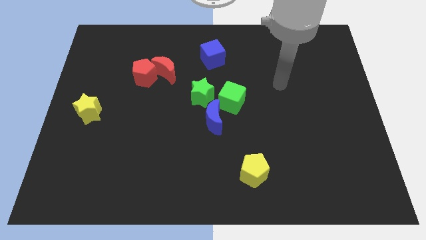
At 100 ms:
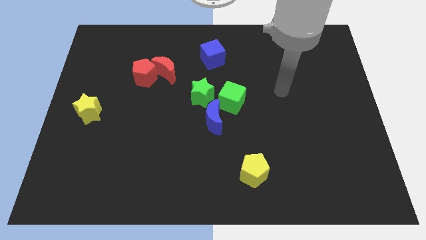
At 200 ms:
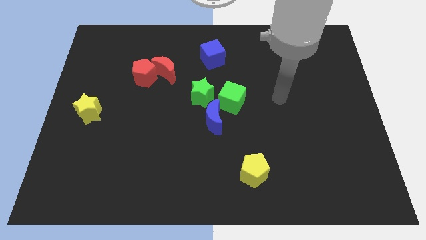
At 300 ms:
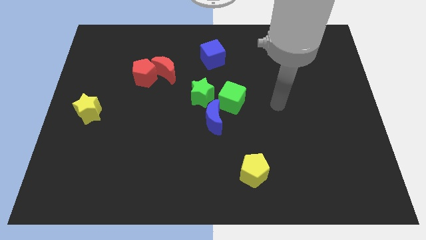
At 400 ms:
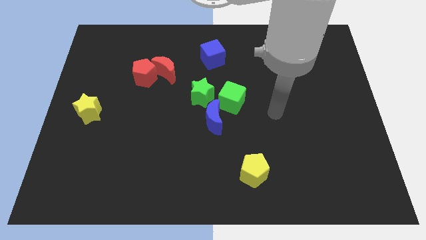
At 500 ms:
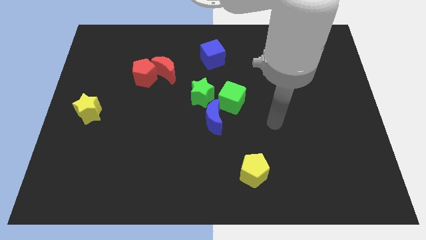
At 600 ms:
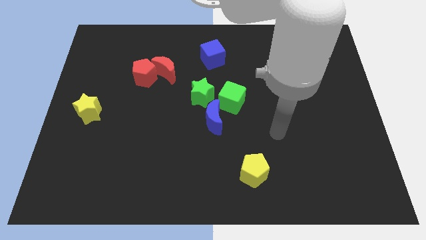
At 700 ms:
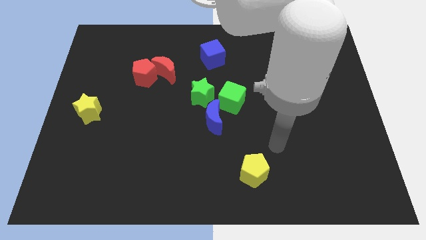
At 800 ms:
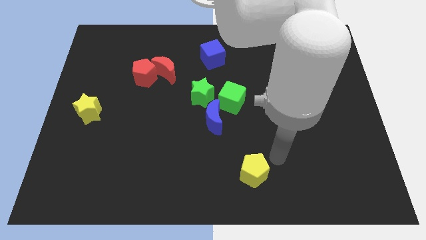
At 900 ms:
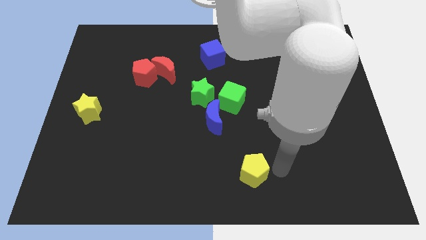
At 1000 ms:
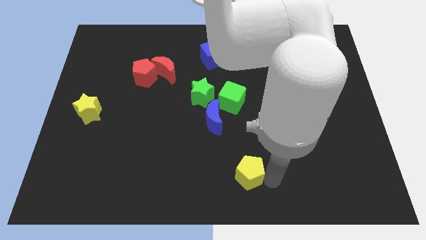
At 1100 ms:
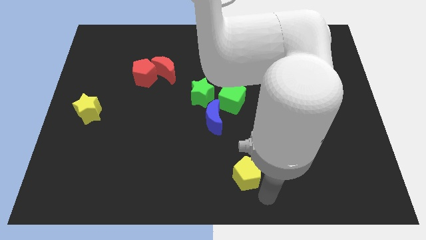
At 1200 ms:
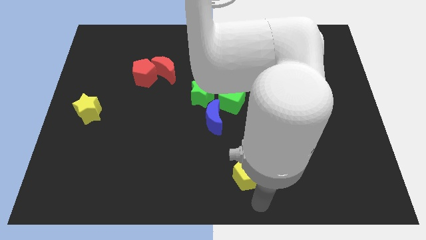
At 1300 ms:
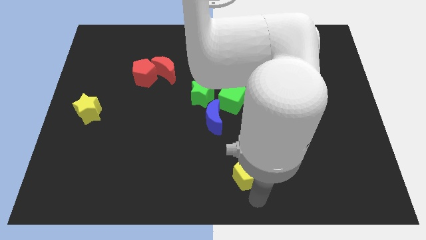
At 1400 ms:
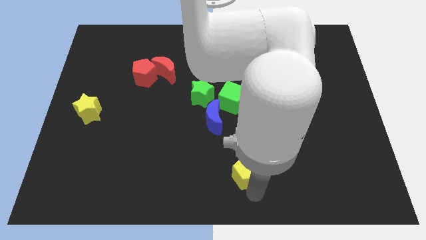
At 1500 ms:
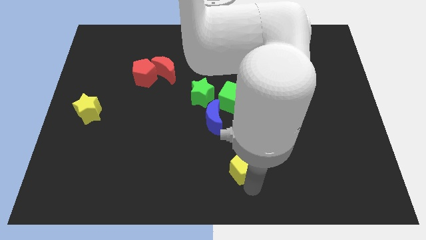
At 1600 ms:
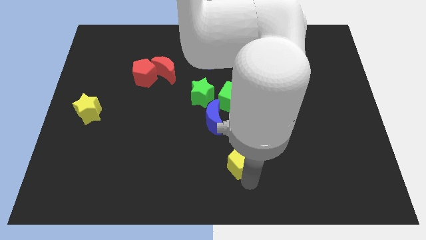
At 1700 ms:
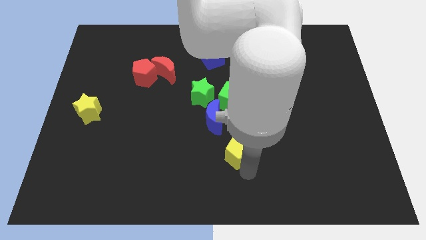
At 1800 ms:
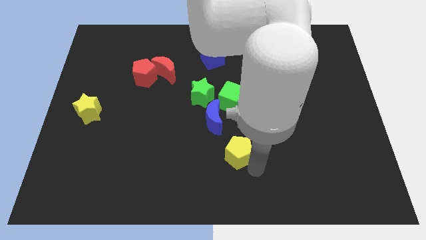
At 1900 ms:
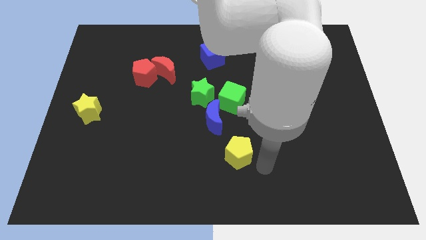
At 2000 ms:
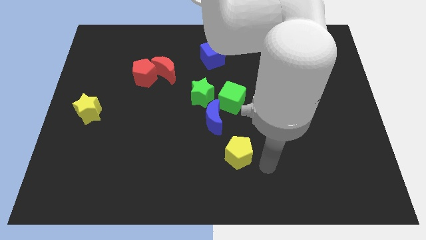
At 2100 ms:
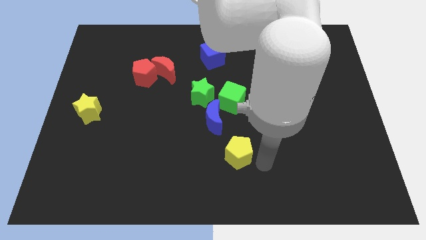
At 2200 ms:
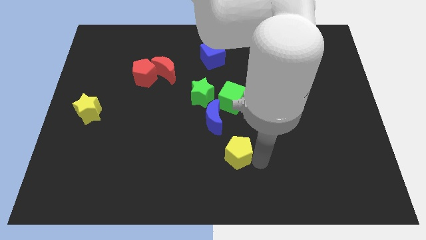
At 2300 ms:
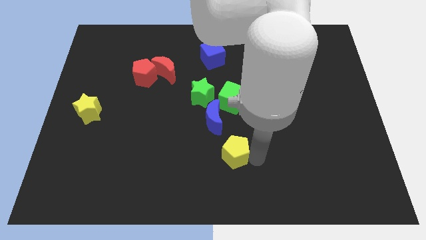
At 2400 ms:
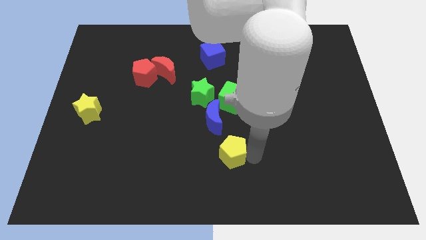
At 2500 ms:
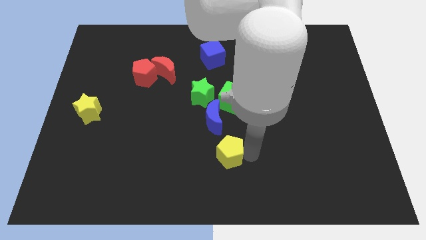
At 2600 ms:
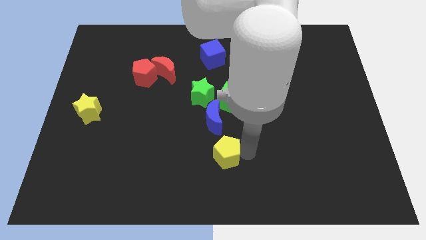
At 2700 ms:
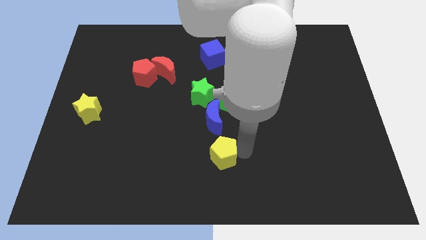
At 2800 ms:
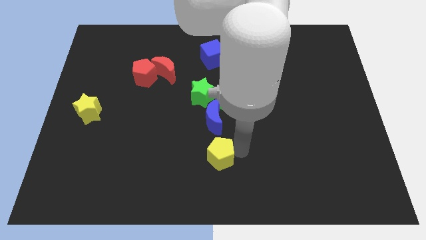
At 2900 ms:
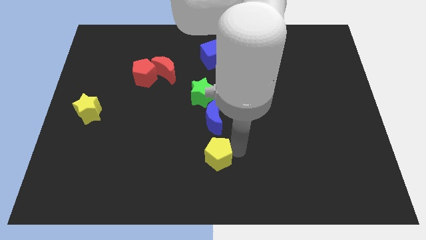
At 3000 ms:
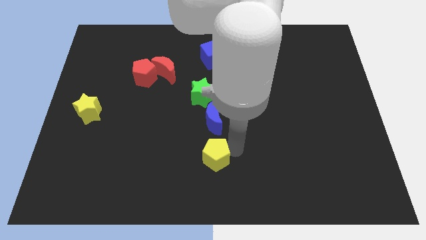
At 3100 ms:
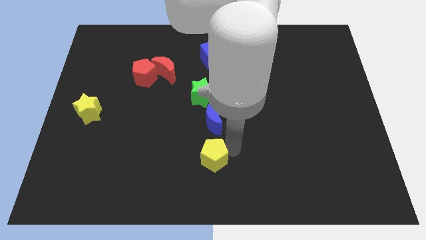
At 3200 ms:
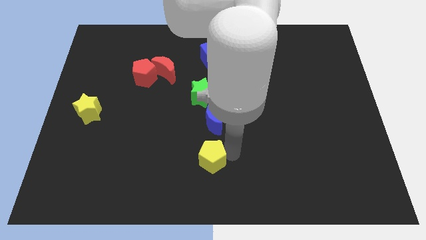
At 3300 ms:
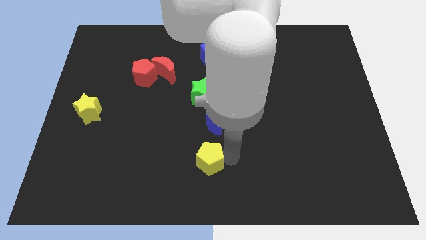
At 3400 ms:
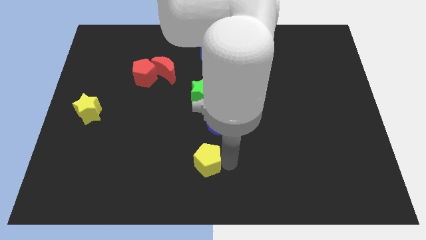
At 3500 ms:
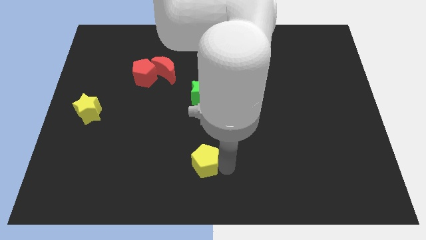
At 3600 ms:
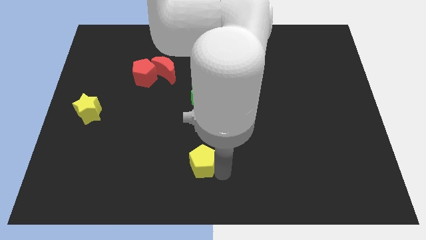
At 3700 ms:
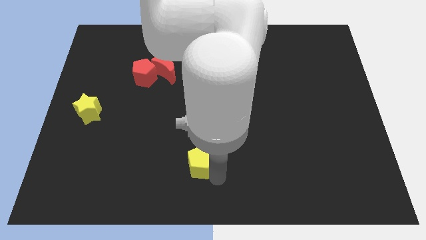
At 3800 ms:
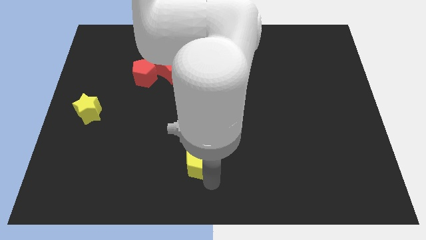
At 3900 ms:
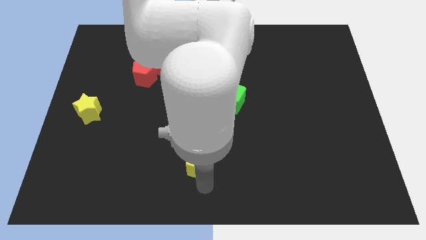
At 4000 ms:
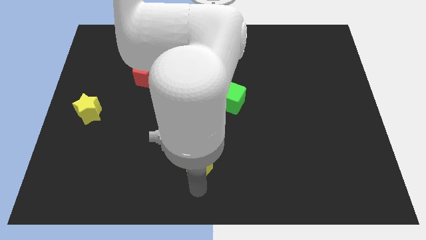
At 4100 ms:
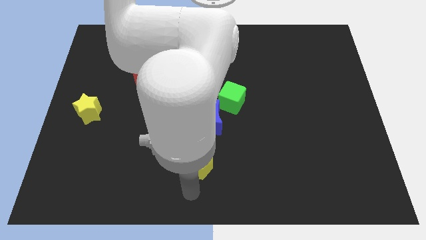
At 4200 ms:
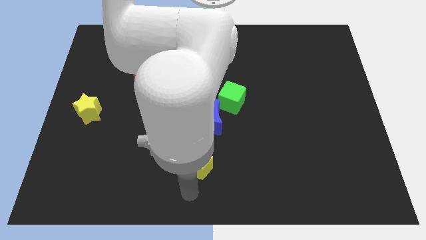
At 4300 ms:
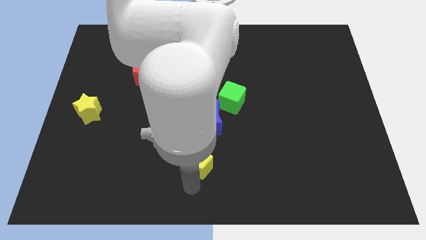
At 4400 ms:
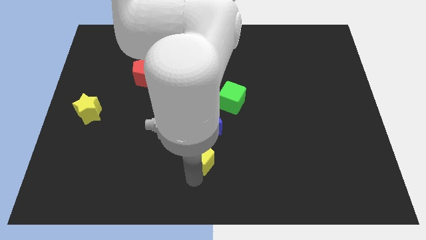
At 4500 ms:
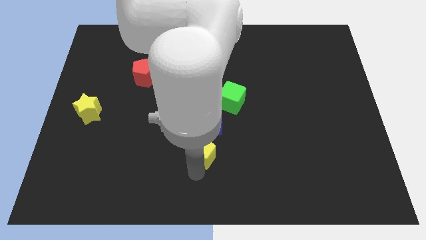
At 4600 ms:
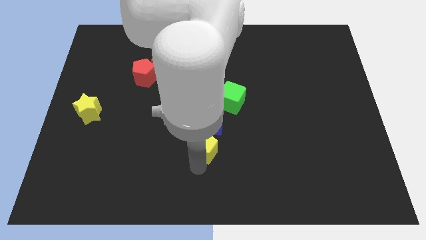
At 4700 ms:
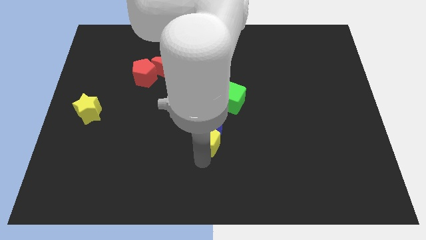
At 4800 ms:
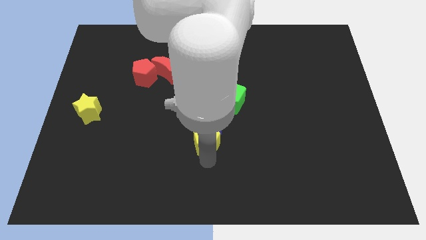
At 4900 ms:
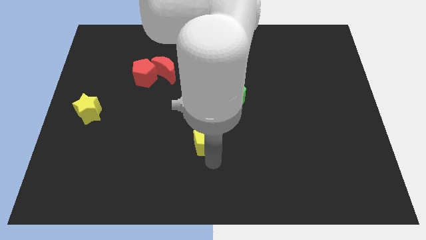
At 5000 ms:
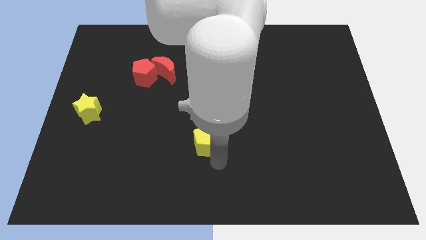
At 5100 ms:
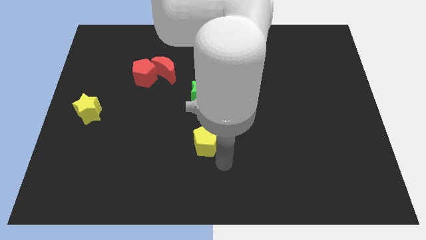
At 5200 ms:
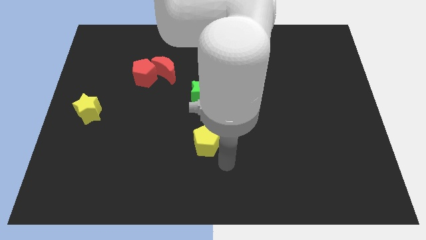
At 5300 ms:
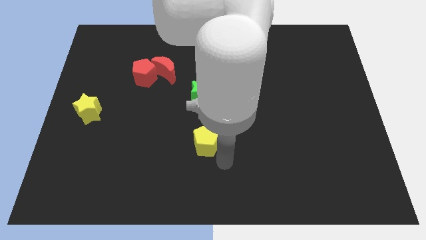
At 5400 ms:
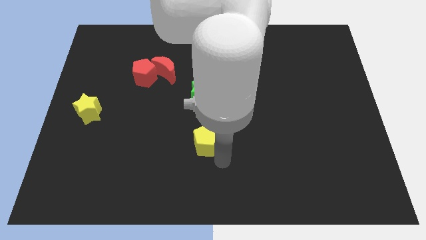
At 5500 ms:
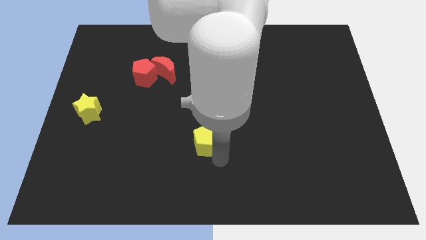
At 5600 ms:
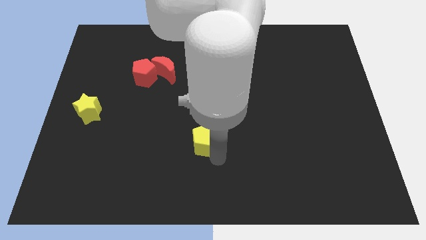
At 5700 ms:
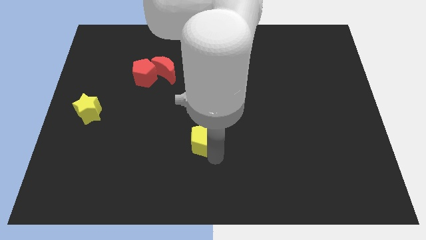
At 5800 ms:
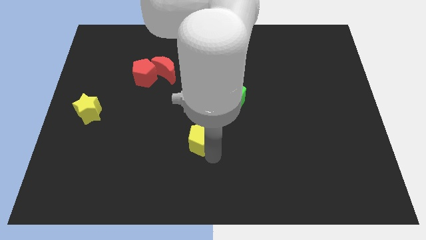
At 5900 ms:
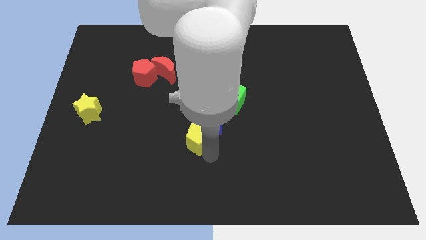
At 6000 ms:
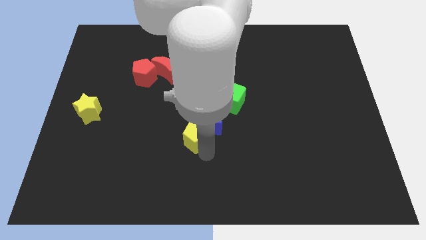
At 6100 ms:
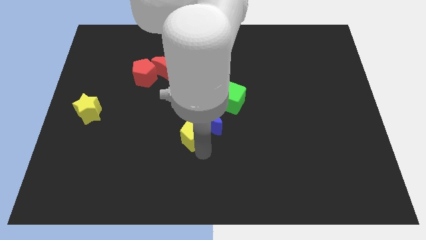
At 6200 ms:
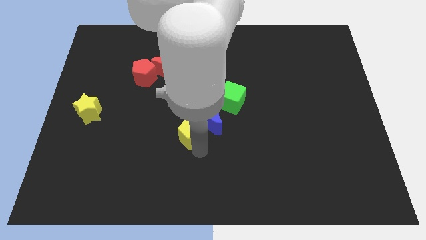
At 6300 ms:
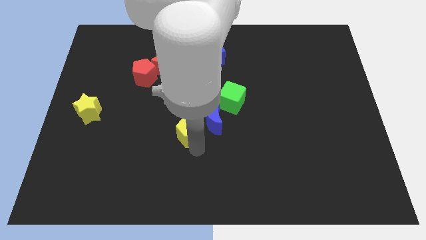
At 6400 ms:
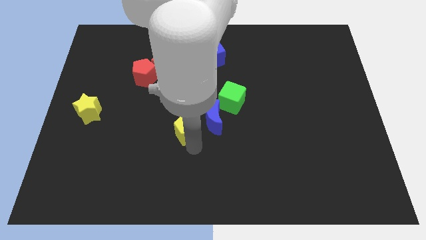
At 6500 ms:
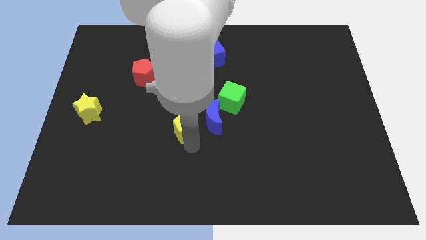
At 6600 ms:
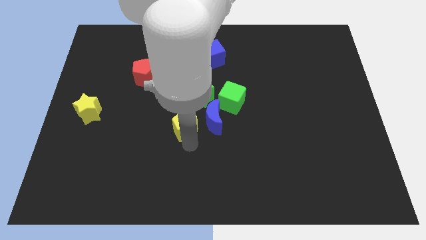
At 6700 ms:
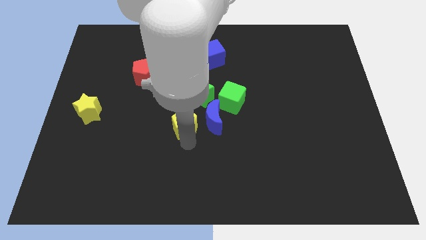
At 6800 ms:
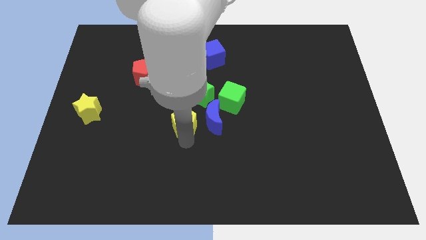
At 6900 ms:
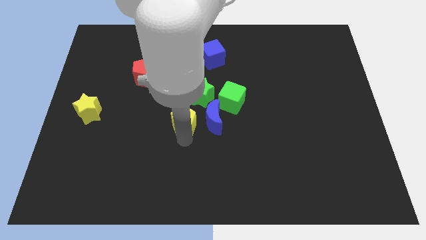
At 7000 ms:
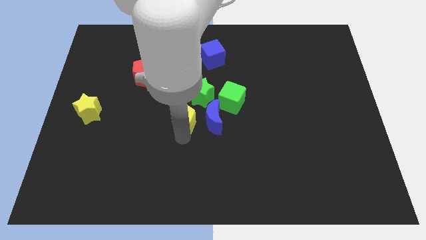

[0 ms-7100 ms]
push the yellow pentagon diagonally upwards and left

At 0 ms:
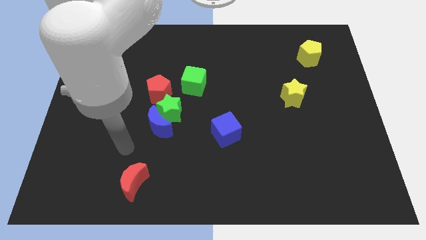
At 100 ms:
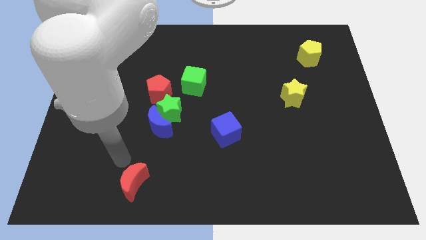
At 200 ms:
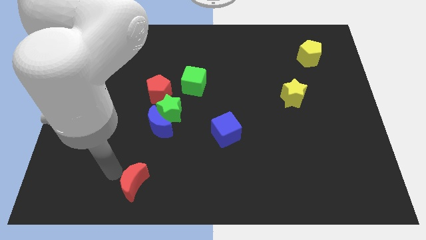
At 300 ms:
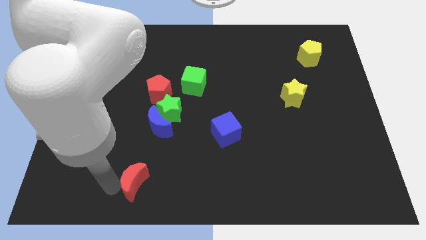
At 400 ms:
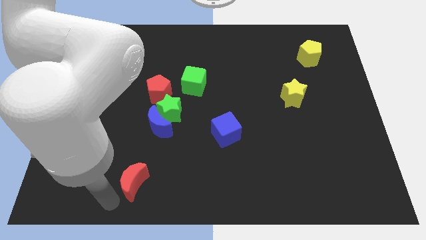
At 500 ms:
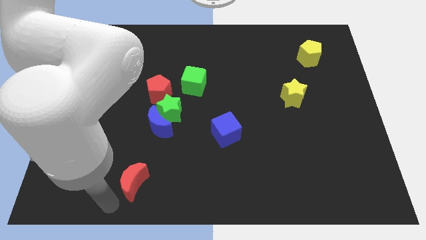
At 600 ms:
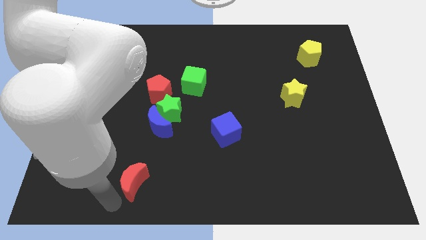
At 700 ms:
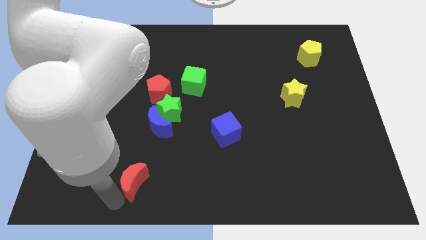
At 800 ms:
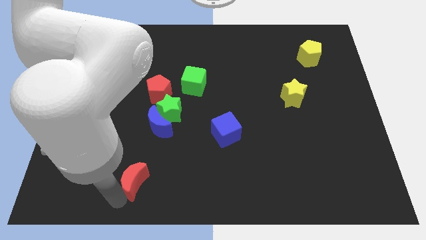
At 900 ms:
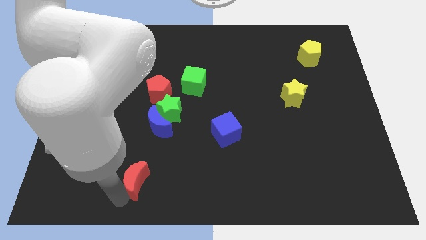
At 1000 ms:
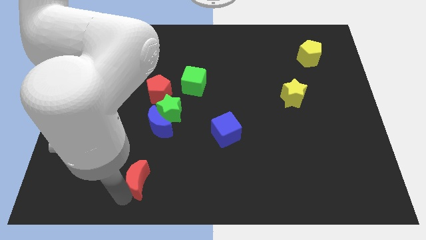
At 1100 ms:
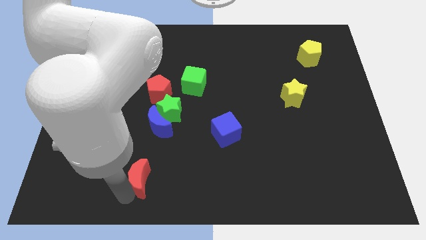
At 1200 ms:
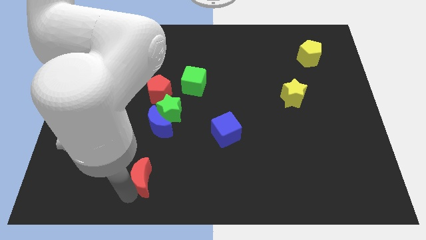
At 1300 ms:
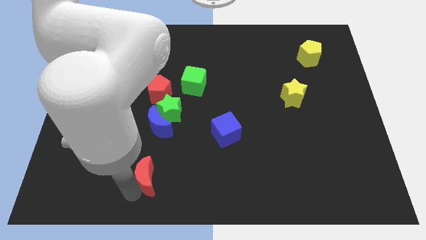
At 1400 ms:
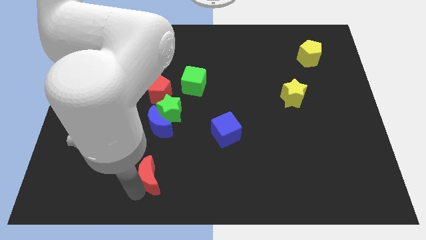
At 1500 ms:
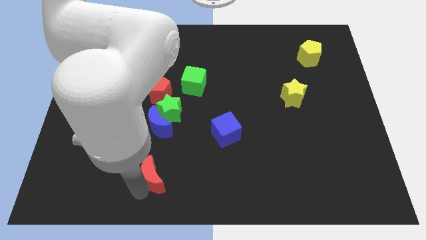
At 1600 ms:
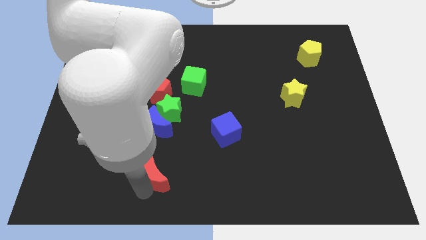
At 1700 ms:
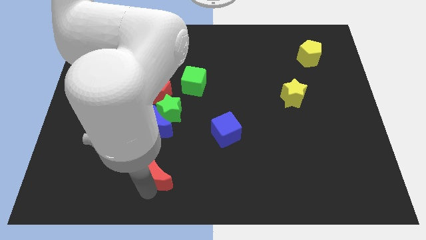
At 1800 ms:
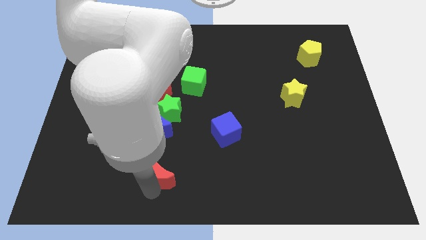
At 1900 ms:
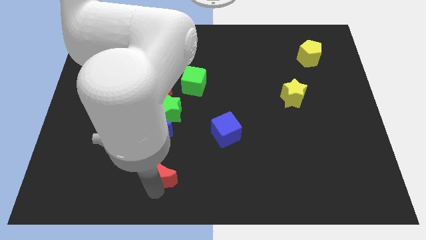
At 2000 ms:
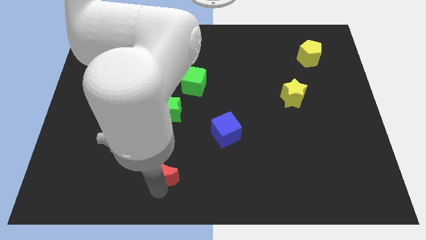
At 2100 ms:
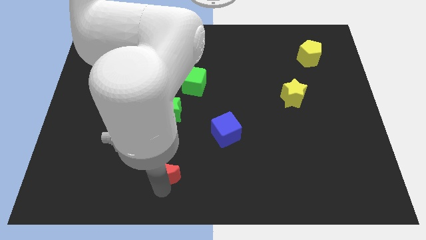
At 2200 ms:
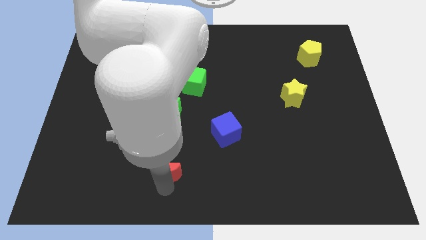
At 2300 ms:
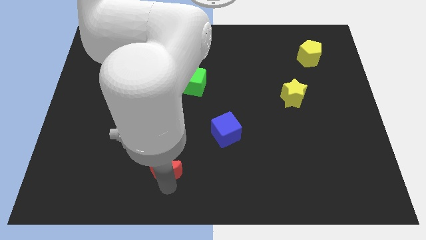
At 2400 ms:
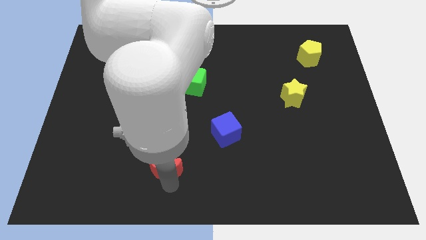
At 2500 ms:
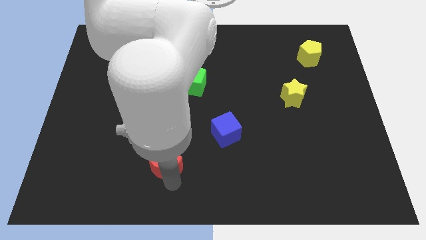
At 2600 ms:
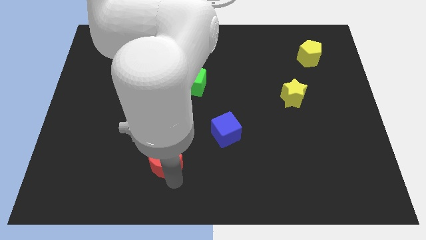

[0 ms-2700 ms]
slide the red moon somewhat diagonally up and right
